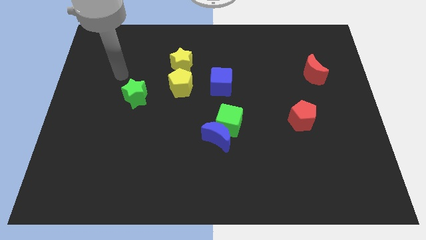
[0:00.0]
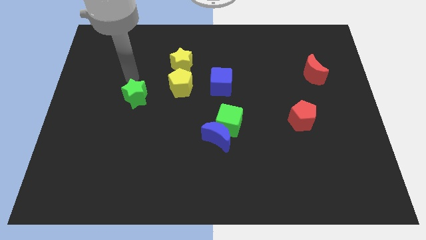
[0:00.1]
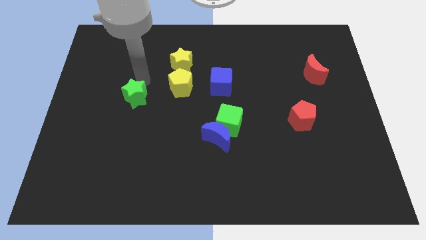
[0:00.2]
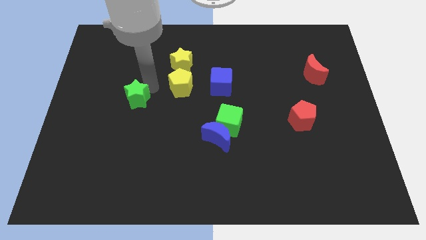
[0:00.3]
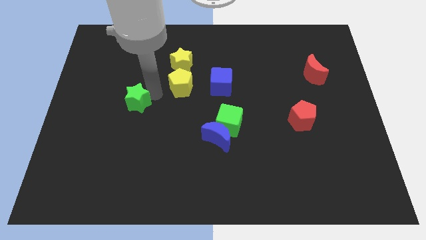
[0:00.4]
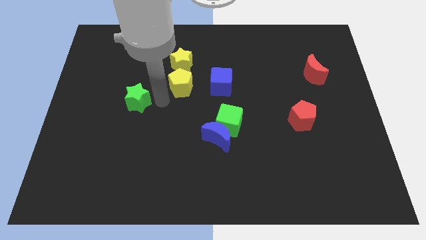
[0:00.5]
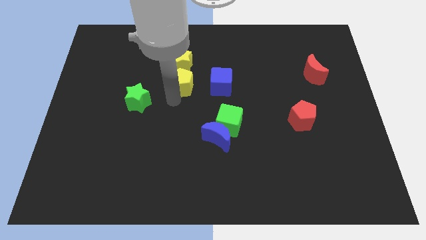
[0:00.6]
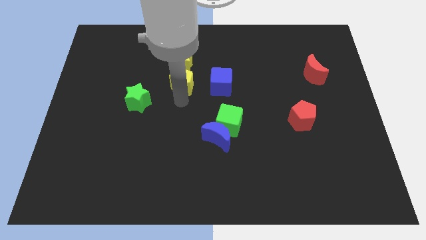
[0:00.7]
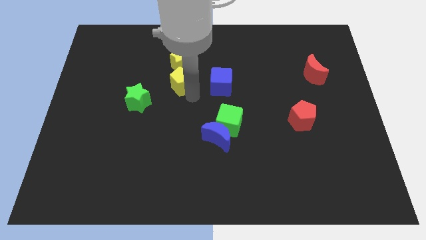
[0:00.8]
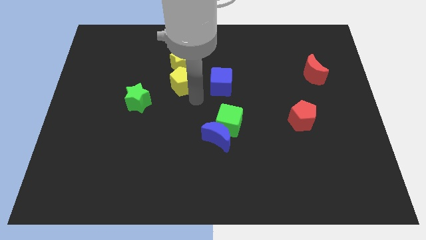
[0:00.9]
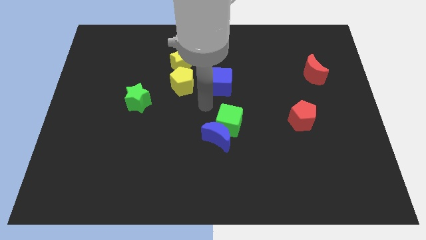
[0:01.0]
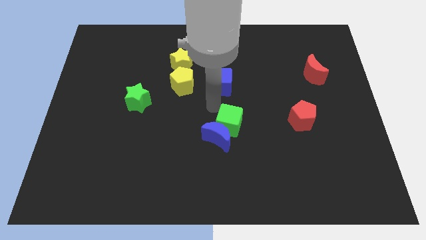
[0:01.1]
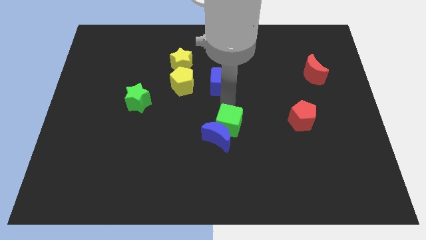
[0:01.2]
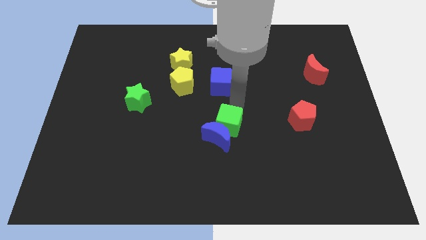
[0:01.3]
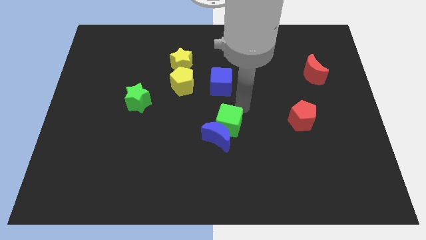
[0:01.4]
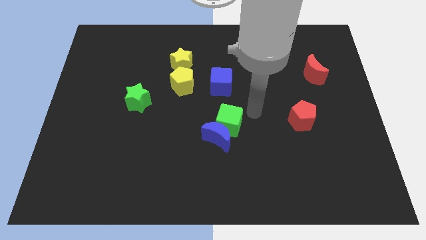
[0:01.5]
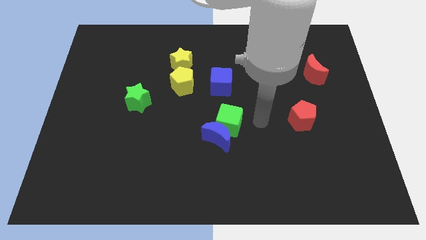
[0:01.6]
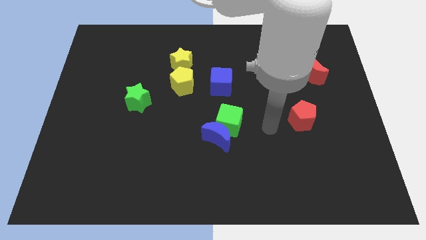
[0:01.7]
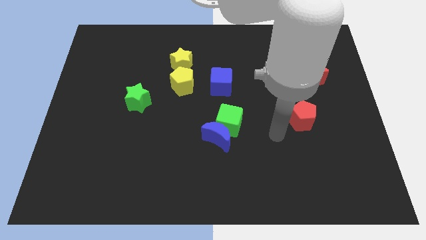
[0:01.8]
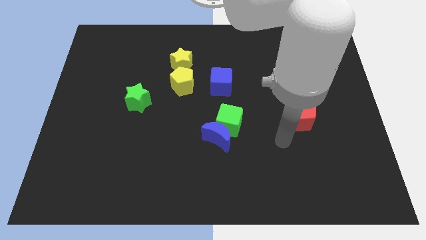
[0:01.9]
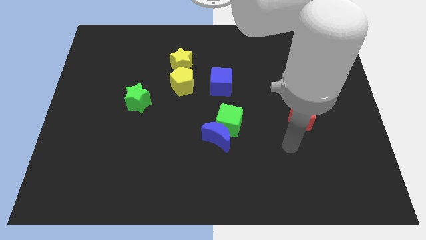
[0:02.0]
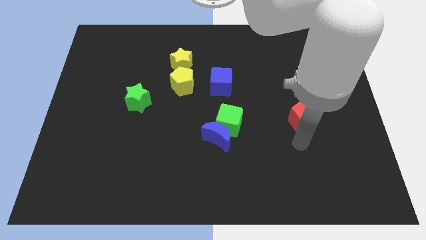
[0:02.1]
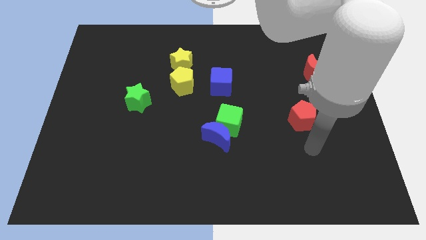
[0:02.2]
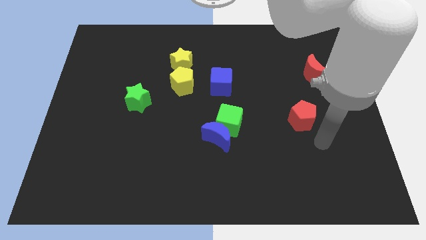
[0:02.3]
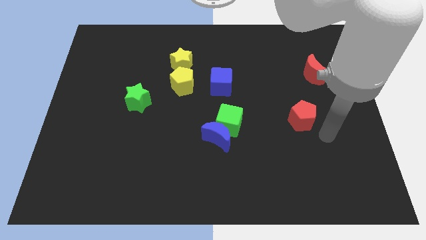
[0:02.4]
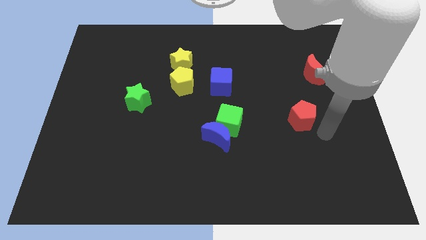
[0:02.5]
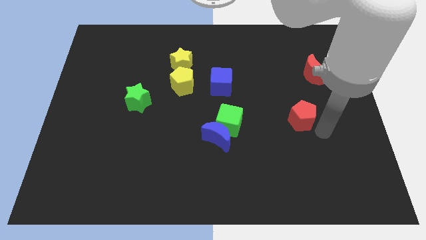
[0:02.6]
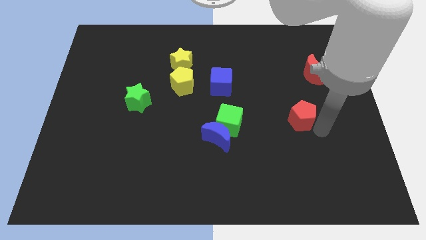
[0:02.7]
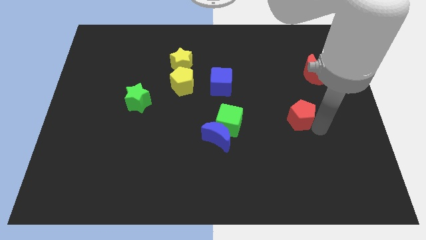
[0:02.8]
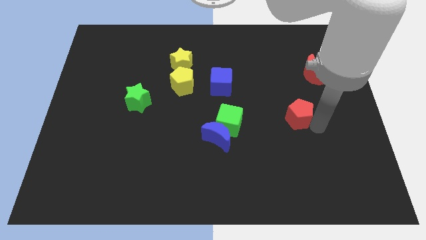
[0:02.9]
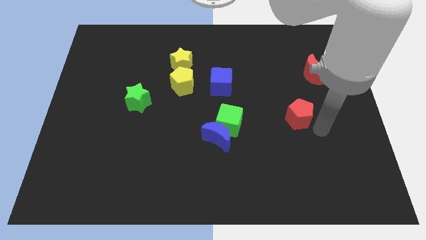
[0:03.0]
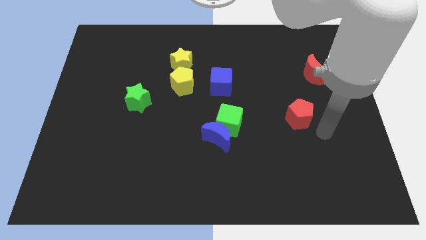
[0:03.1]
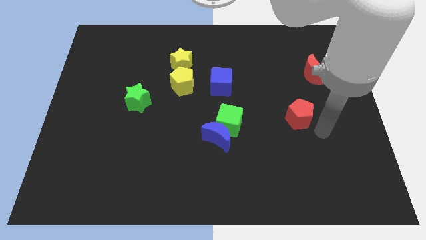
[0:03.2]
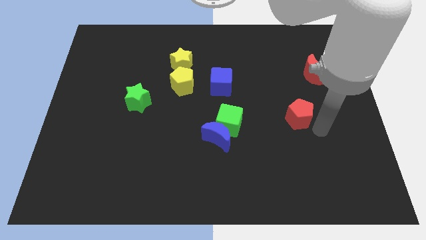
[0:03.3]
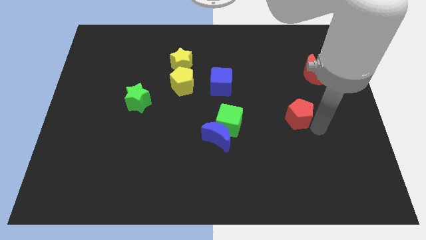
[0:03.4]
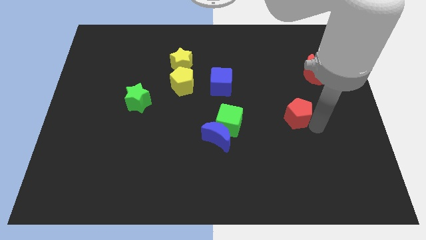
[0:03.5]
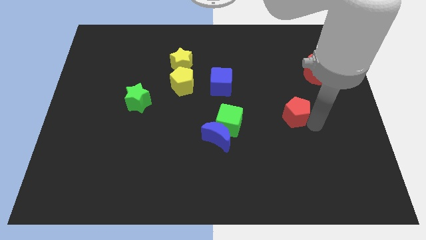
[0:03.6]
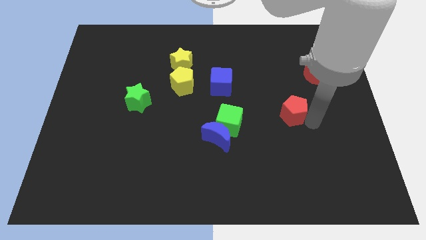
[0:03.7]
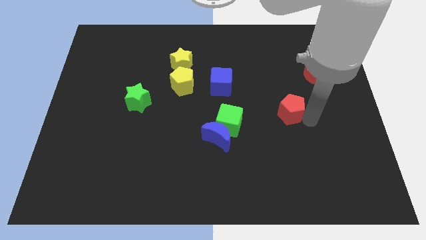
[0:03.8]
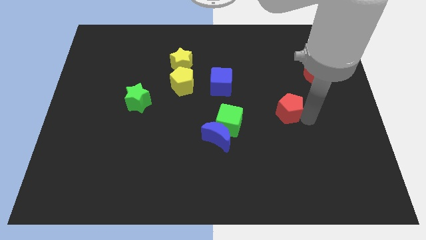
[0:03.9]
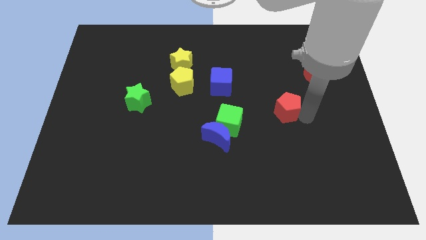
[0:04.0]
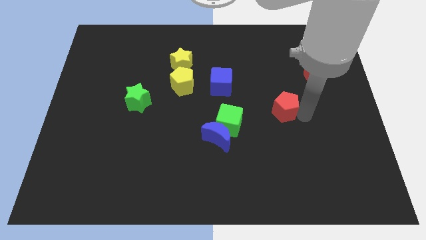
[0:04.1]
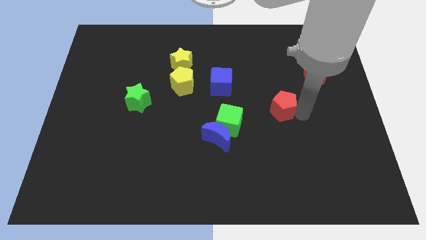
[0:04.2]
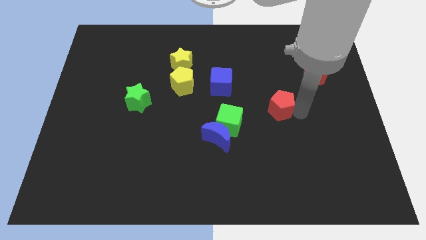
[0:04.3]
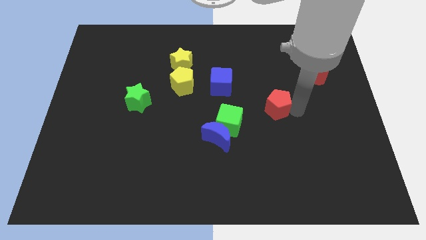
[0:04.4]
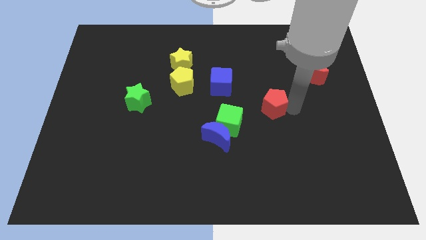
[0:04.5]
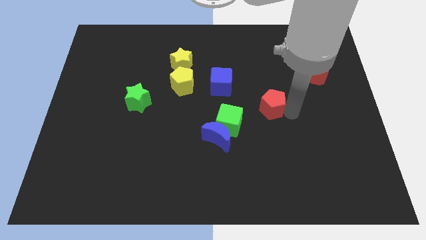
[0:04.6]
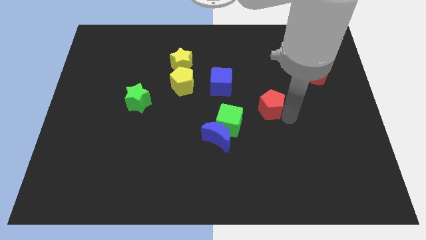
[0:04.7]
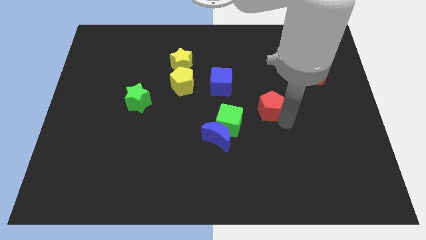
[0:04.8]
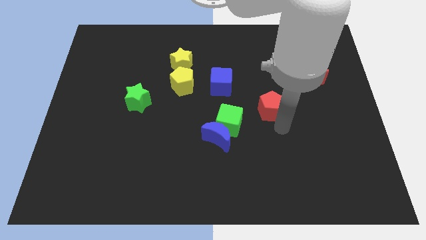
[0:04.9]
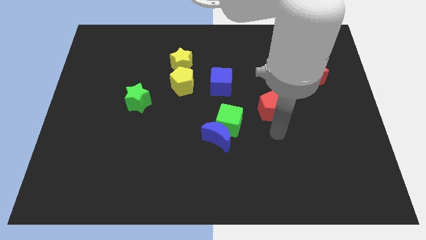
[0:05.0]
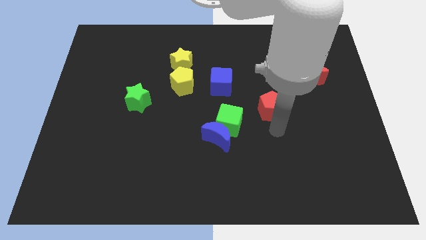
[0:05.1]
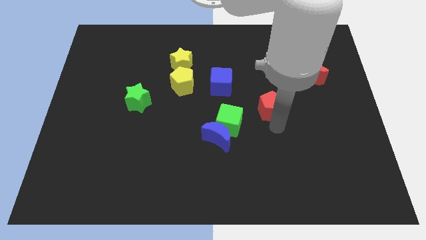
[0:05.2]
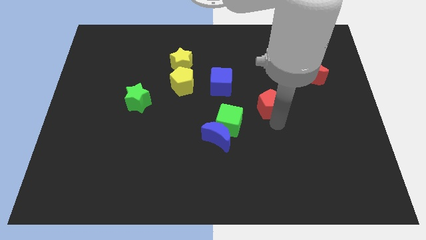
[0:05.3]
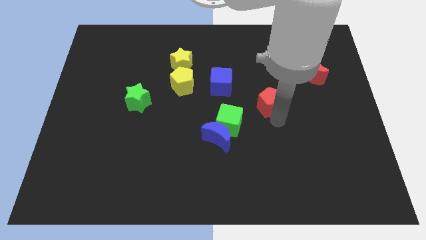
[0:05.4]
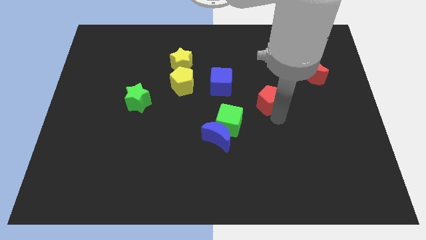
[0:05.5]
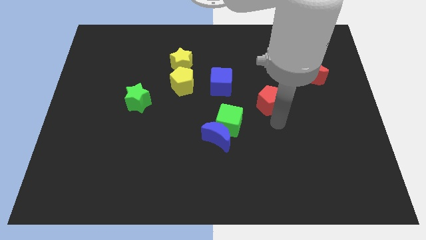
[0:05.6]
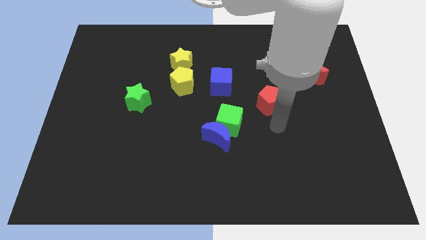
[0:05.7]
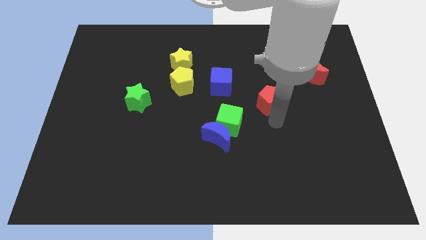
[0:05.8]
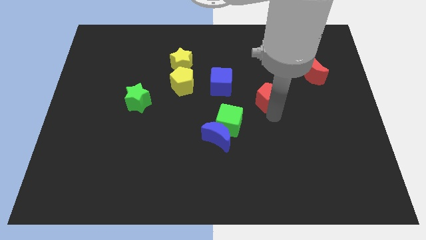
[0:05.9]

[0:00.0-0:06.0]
move the red pentagon right of the blue cube
